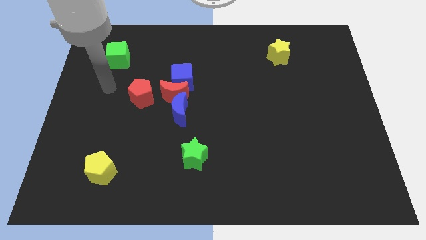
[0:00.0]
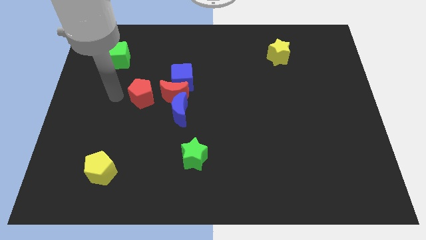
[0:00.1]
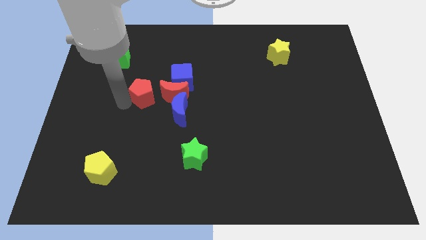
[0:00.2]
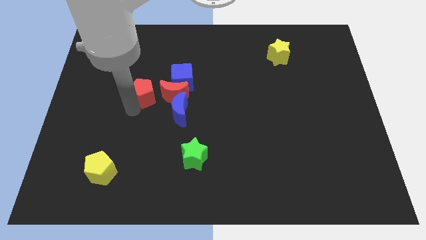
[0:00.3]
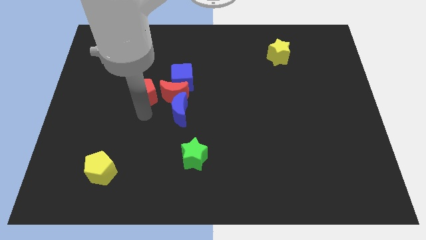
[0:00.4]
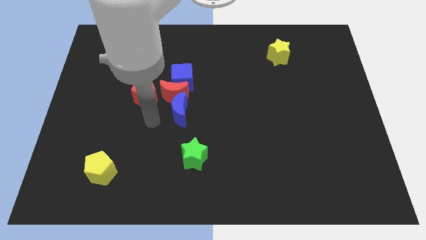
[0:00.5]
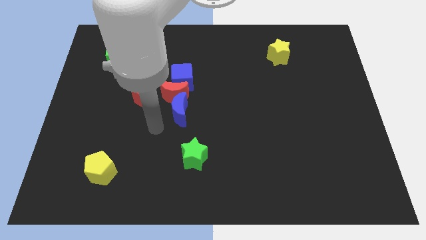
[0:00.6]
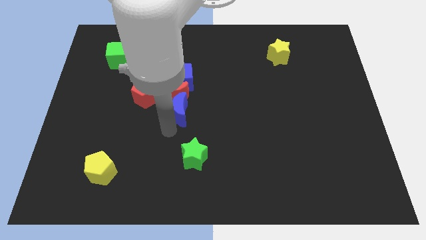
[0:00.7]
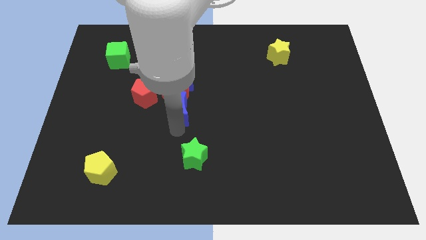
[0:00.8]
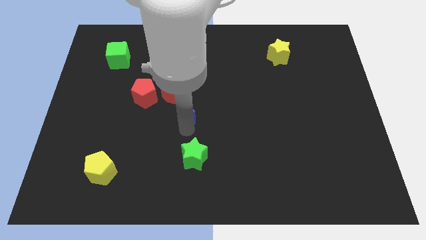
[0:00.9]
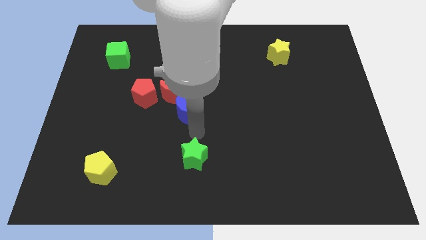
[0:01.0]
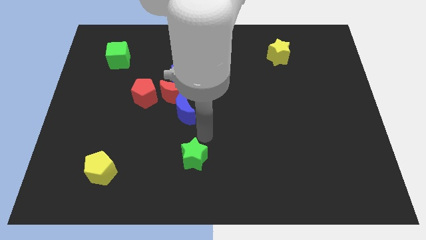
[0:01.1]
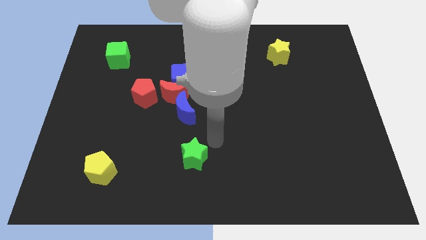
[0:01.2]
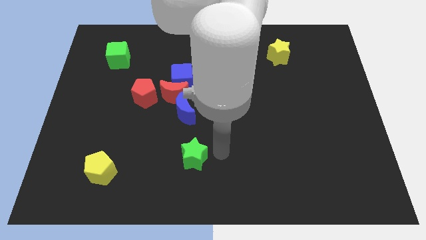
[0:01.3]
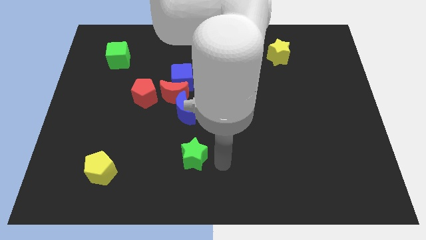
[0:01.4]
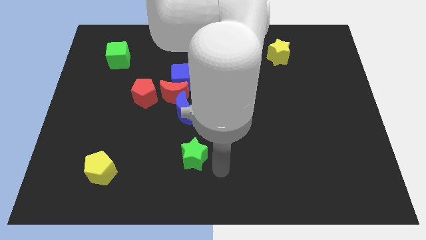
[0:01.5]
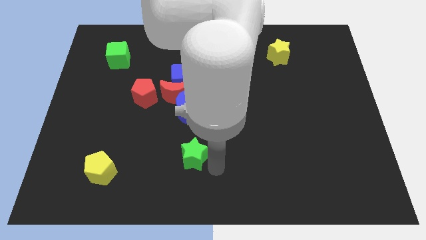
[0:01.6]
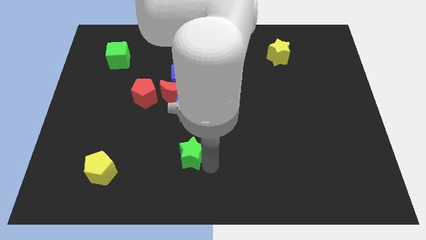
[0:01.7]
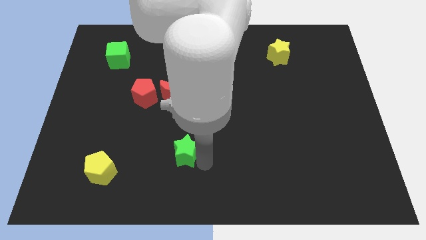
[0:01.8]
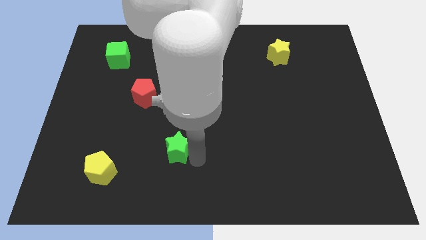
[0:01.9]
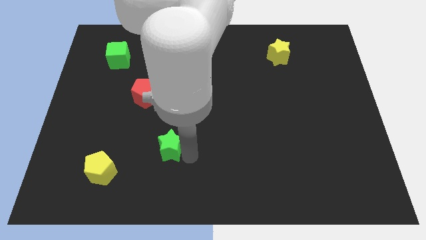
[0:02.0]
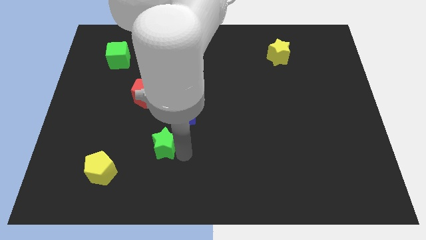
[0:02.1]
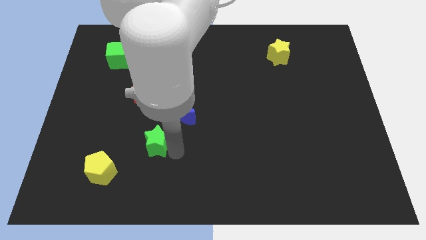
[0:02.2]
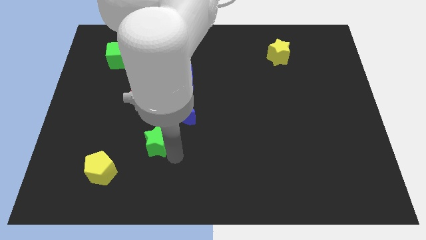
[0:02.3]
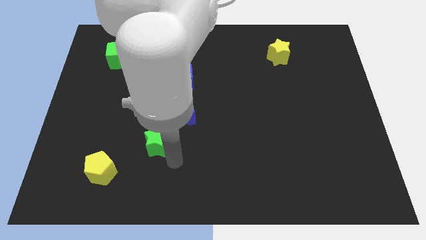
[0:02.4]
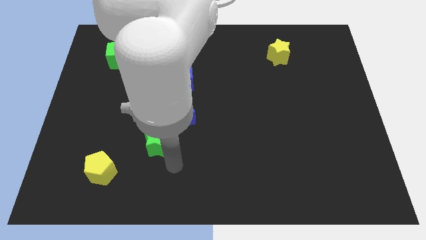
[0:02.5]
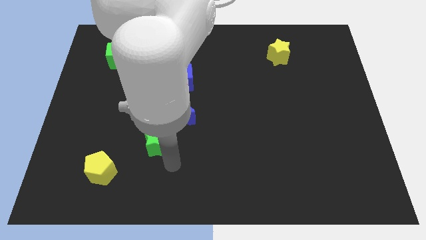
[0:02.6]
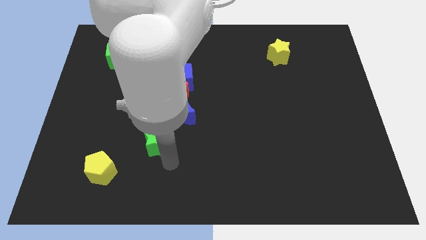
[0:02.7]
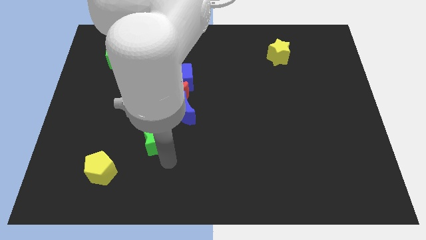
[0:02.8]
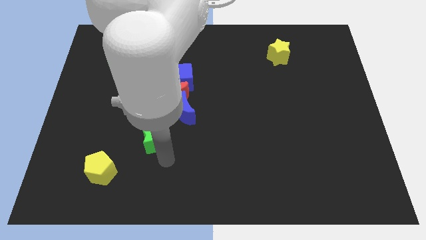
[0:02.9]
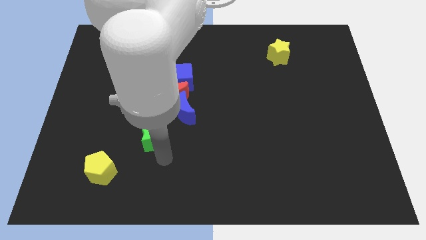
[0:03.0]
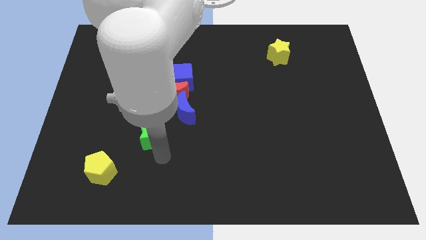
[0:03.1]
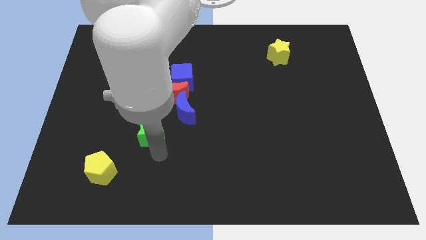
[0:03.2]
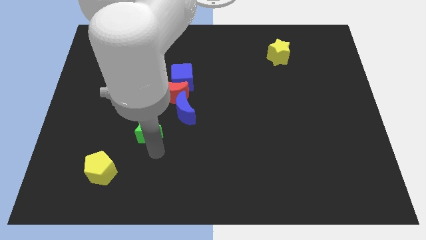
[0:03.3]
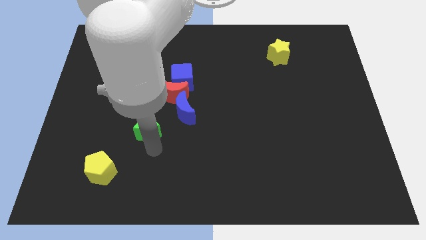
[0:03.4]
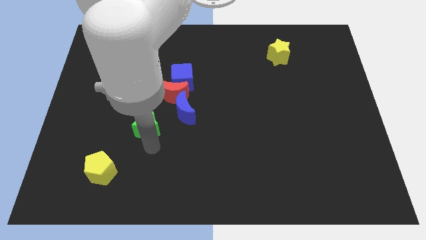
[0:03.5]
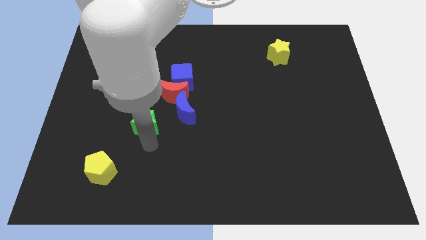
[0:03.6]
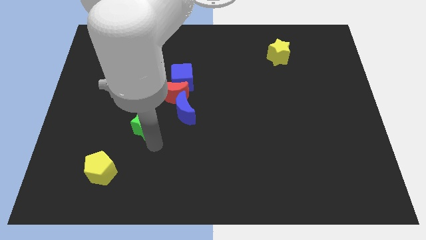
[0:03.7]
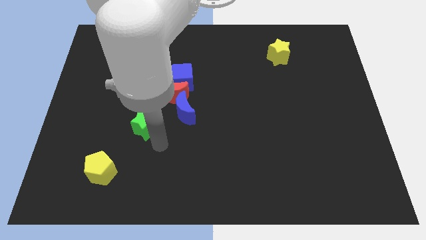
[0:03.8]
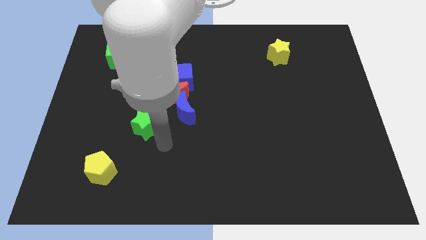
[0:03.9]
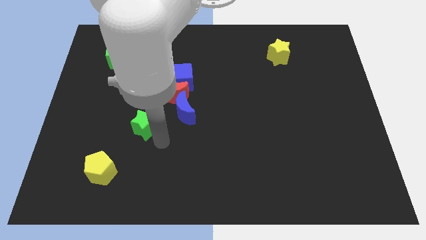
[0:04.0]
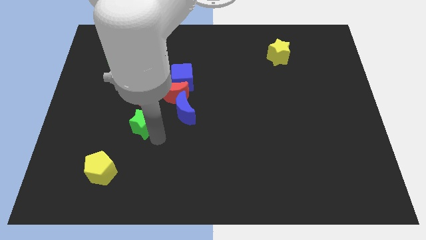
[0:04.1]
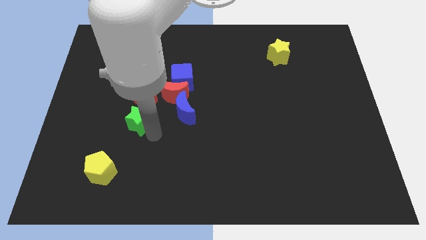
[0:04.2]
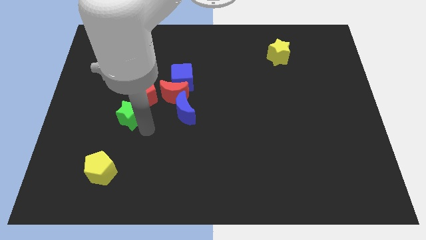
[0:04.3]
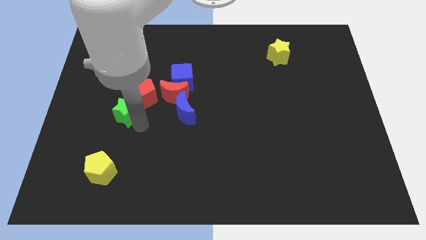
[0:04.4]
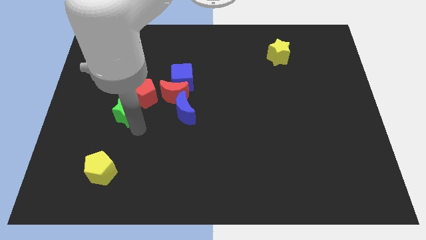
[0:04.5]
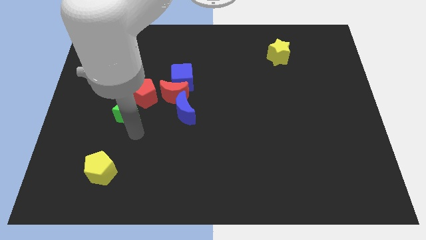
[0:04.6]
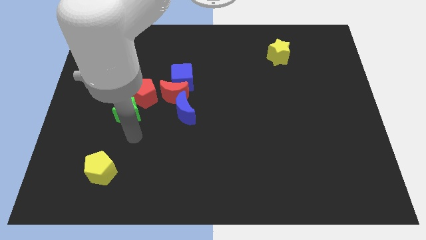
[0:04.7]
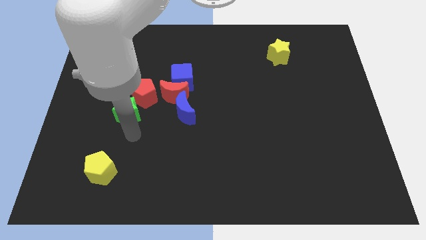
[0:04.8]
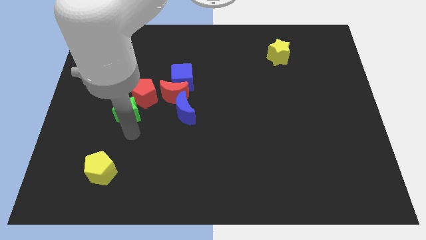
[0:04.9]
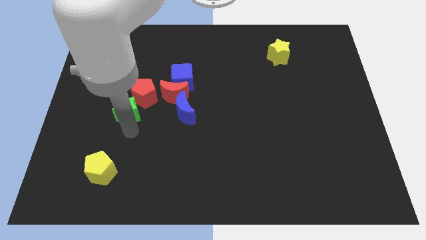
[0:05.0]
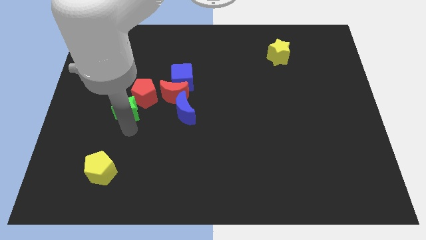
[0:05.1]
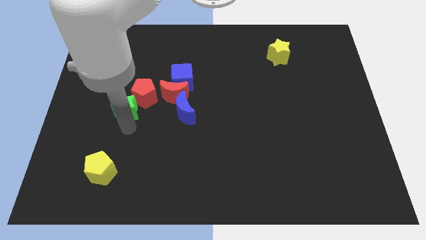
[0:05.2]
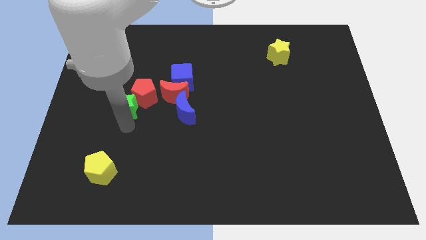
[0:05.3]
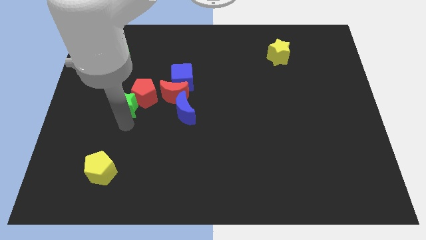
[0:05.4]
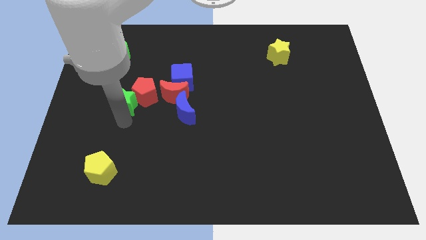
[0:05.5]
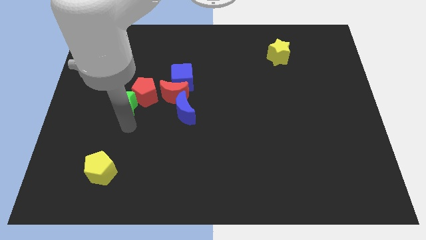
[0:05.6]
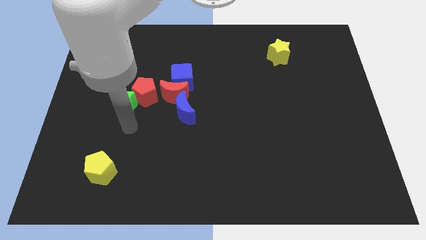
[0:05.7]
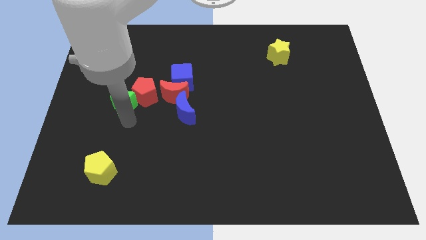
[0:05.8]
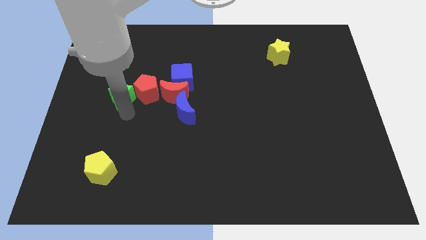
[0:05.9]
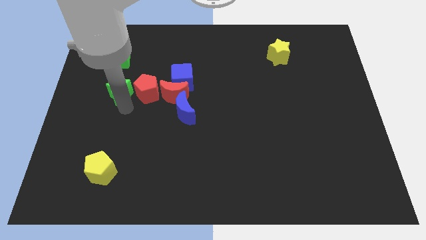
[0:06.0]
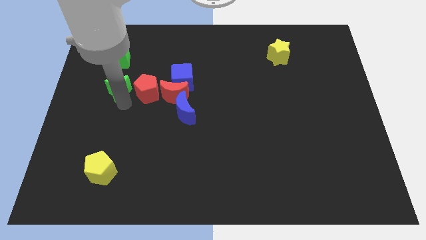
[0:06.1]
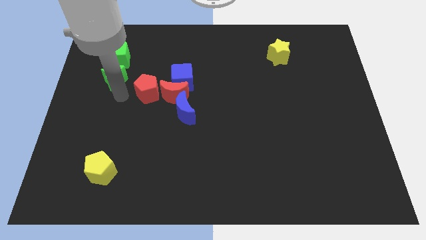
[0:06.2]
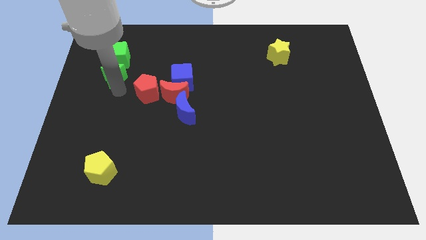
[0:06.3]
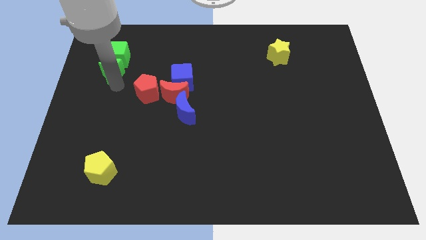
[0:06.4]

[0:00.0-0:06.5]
slide the green star next to the green cube
